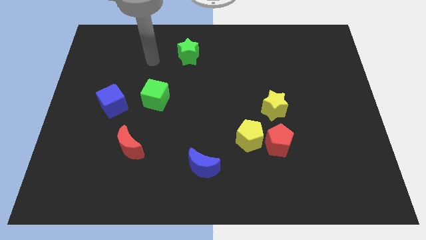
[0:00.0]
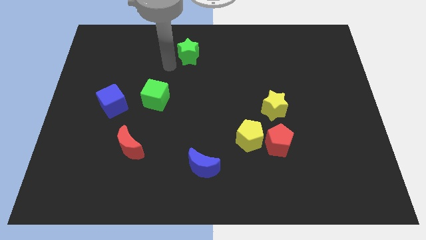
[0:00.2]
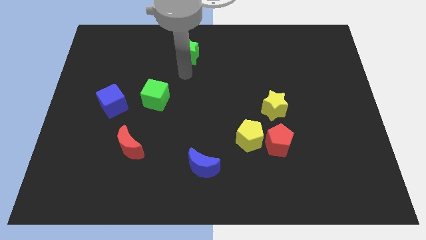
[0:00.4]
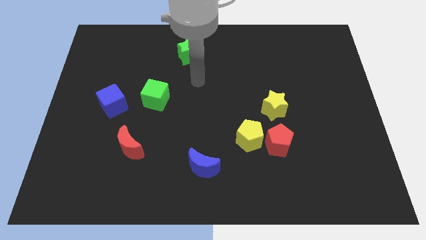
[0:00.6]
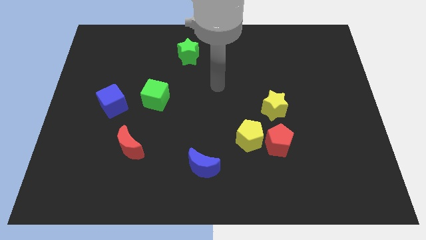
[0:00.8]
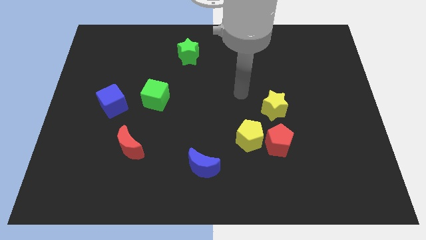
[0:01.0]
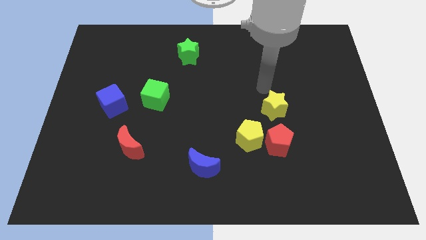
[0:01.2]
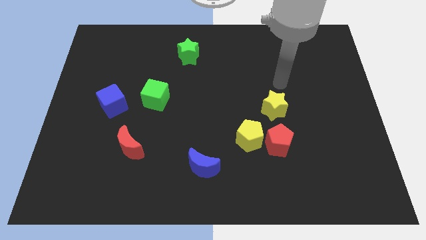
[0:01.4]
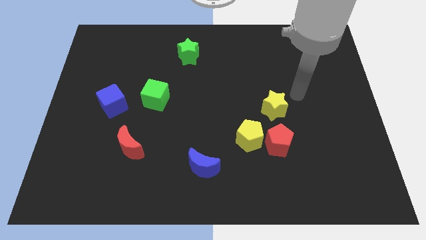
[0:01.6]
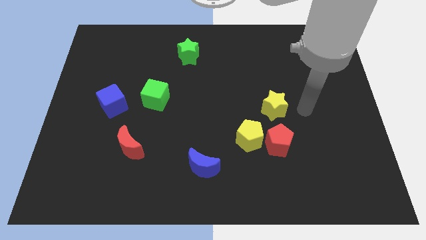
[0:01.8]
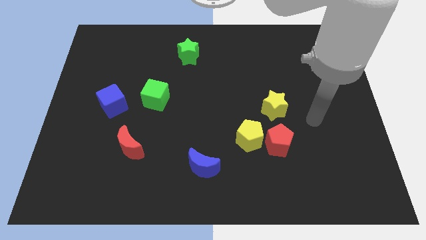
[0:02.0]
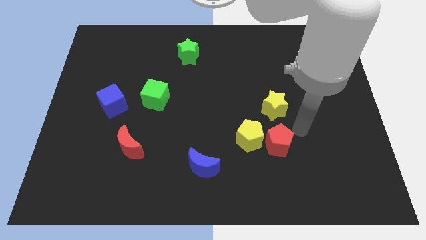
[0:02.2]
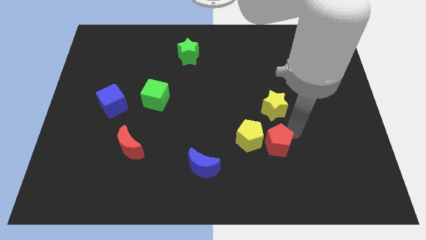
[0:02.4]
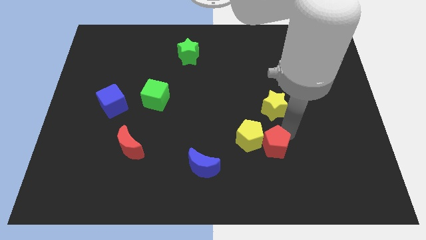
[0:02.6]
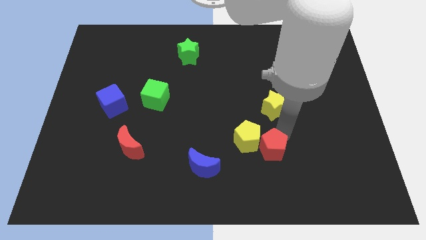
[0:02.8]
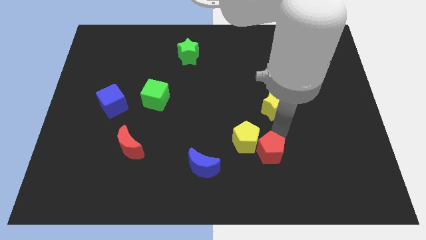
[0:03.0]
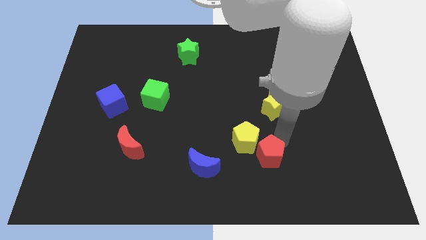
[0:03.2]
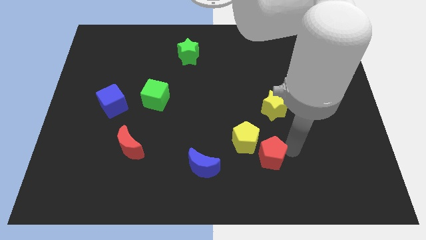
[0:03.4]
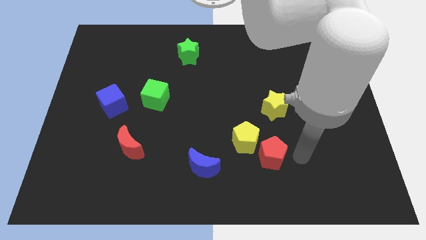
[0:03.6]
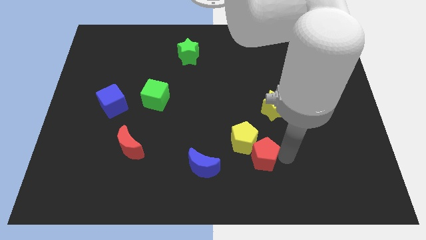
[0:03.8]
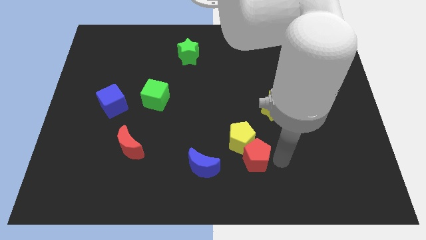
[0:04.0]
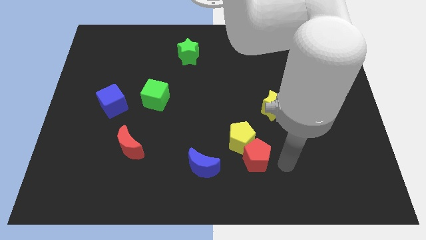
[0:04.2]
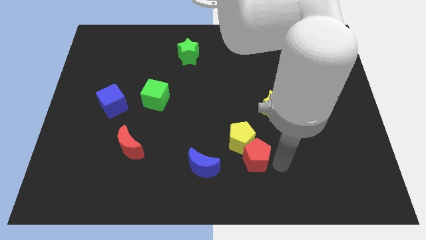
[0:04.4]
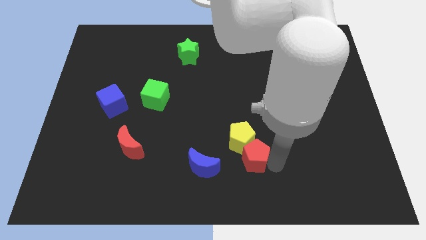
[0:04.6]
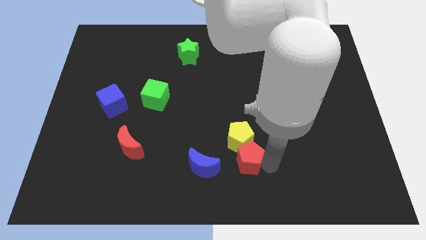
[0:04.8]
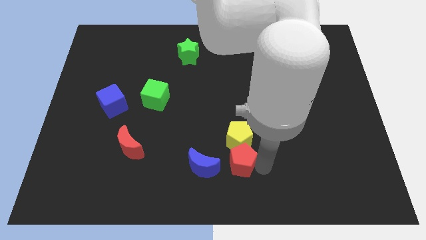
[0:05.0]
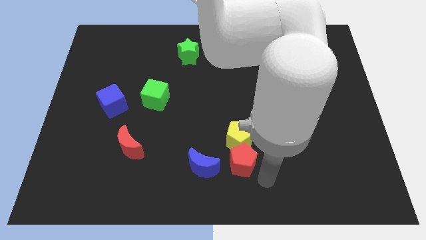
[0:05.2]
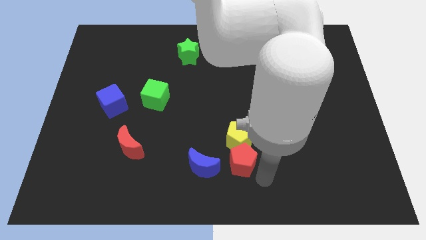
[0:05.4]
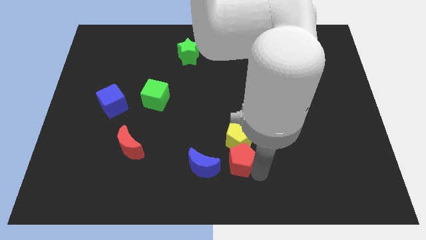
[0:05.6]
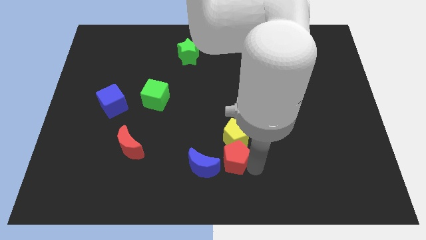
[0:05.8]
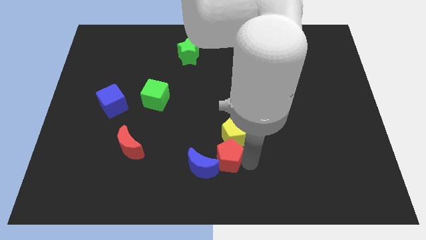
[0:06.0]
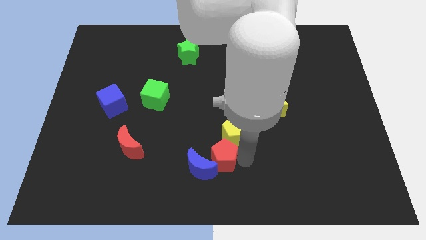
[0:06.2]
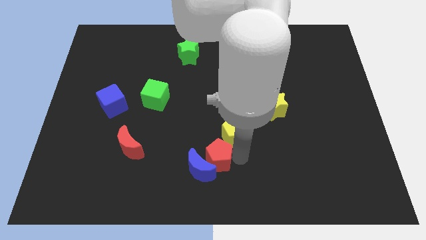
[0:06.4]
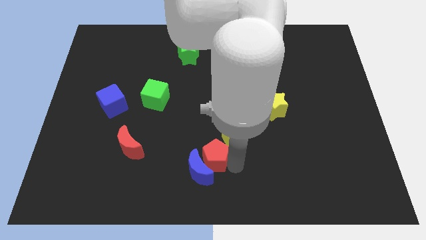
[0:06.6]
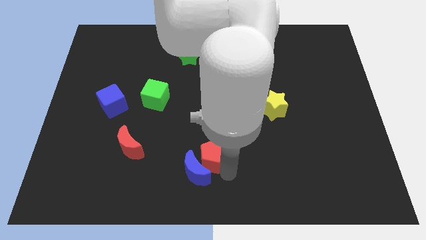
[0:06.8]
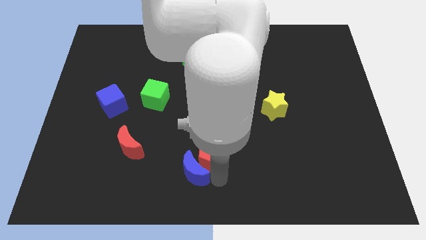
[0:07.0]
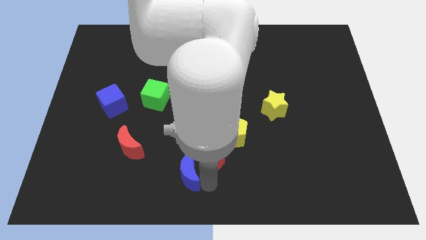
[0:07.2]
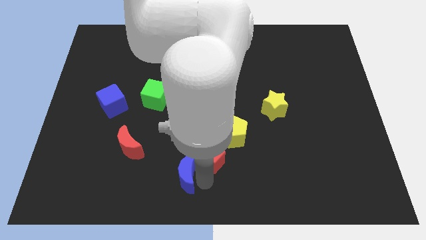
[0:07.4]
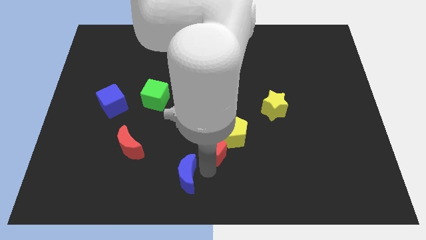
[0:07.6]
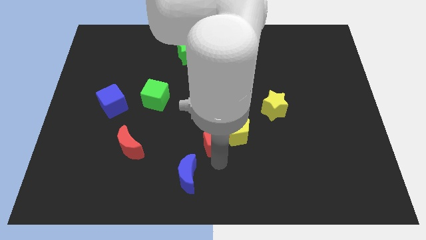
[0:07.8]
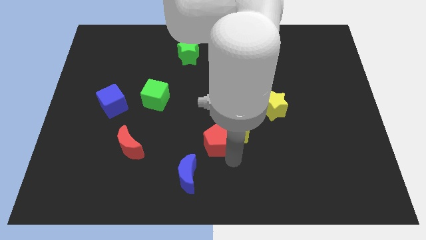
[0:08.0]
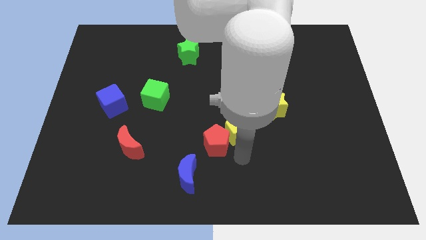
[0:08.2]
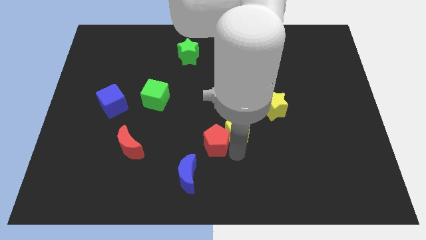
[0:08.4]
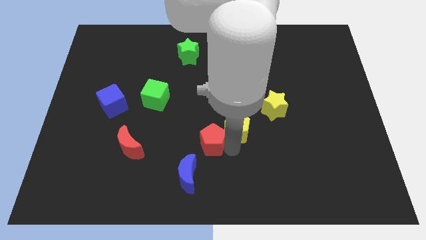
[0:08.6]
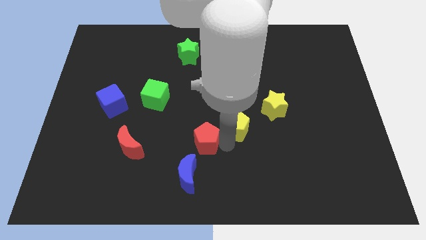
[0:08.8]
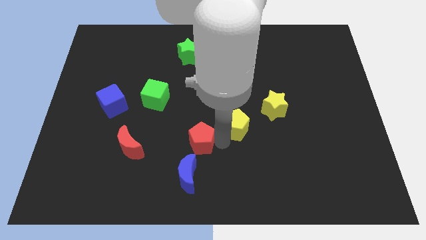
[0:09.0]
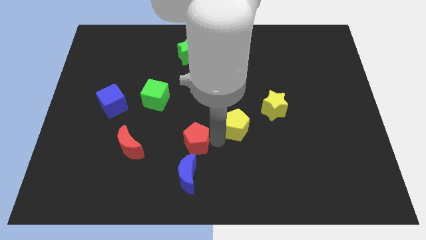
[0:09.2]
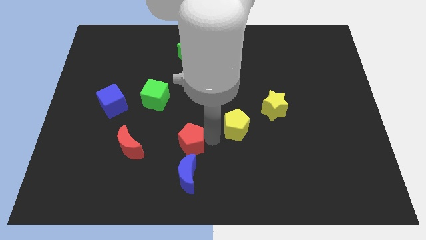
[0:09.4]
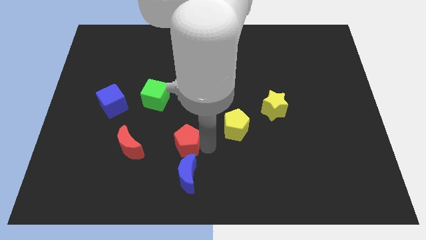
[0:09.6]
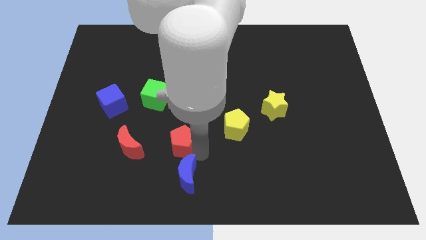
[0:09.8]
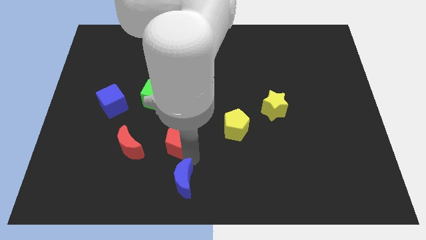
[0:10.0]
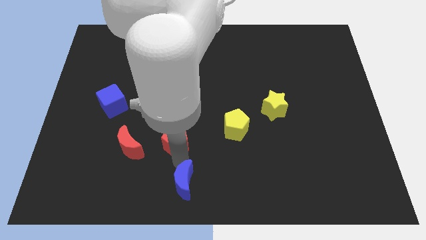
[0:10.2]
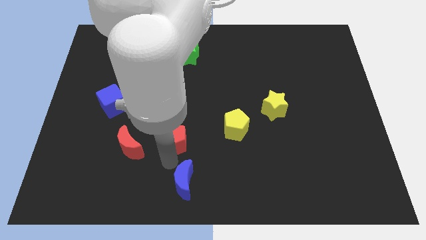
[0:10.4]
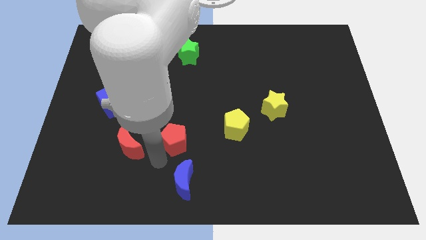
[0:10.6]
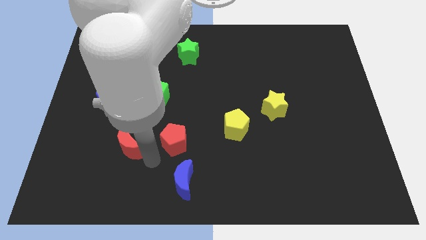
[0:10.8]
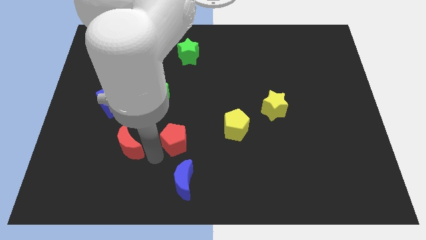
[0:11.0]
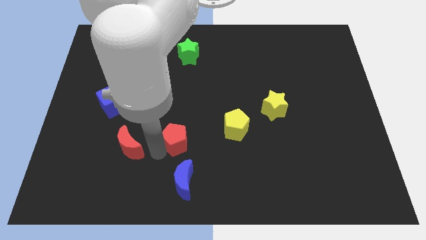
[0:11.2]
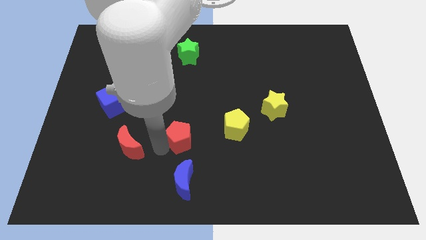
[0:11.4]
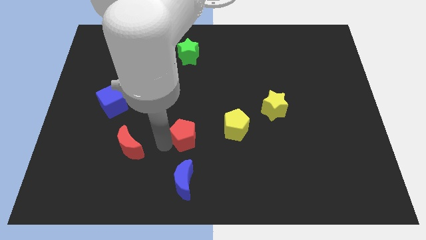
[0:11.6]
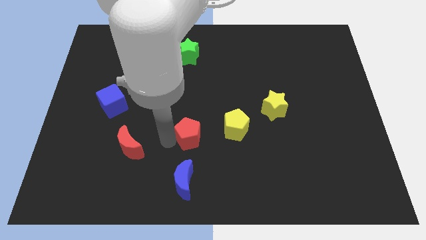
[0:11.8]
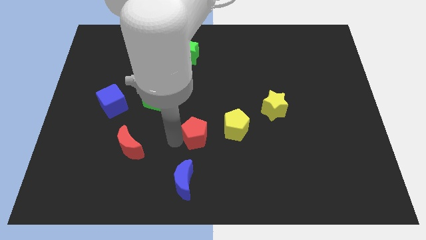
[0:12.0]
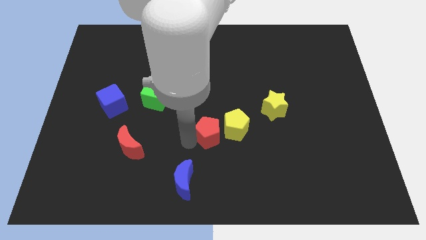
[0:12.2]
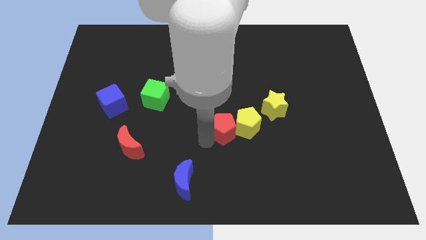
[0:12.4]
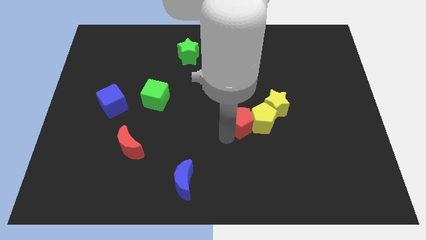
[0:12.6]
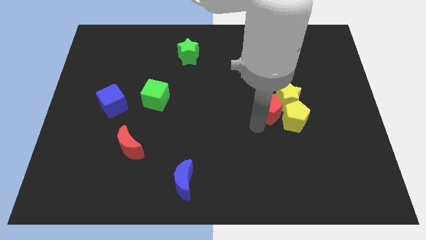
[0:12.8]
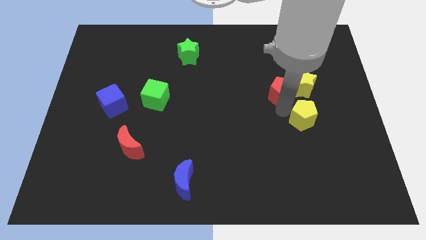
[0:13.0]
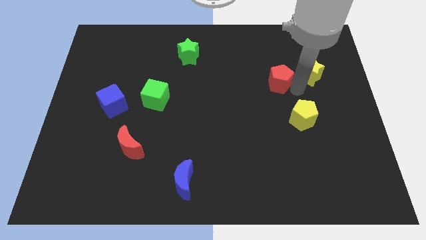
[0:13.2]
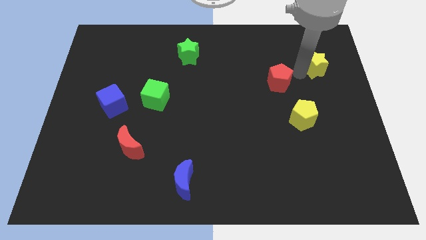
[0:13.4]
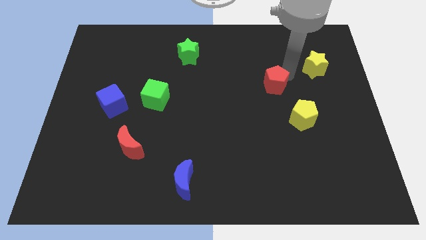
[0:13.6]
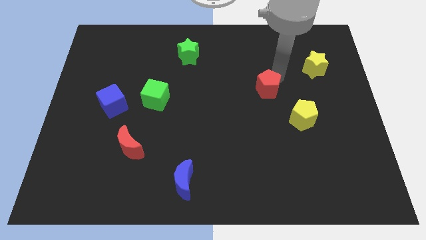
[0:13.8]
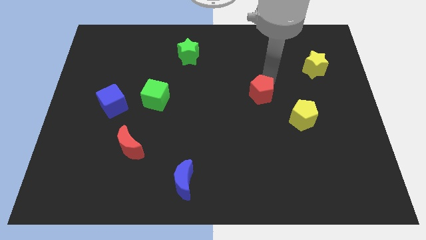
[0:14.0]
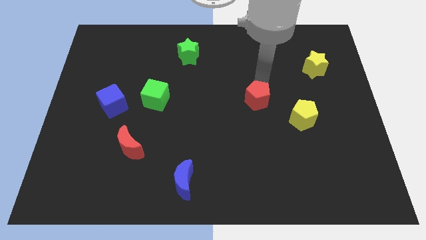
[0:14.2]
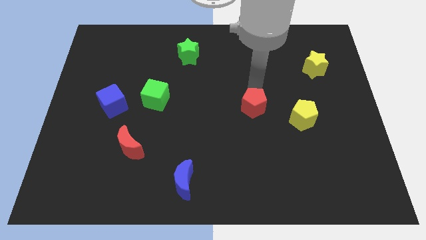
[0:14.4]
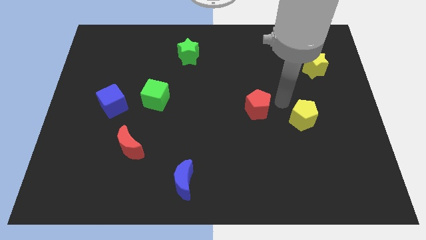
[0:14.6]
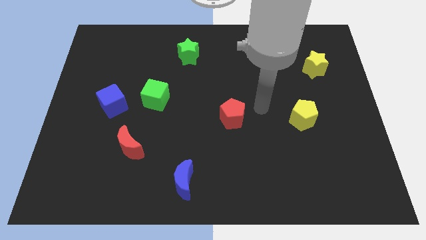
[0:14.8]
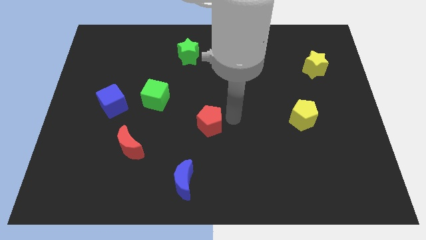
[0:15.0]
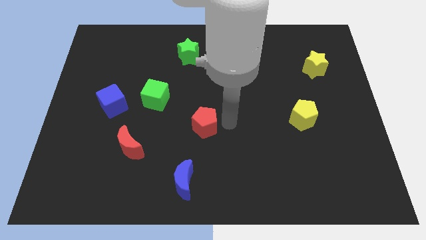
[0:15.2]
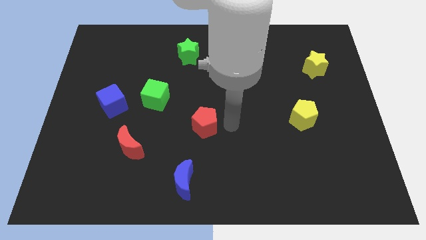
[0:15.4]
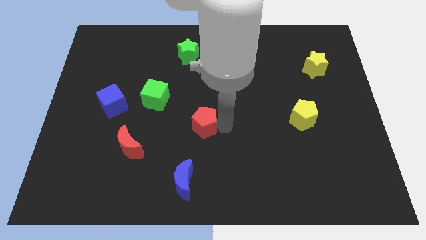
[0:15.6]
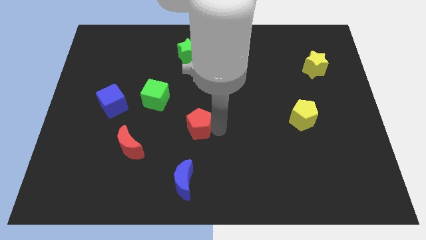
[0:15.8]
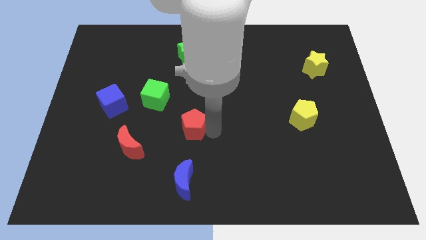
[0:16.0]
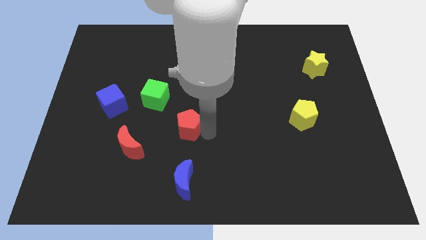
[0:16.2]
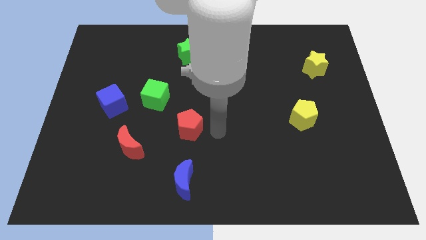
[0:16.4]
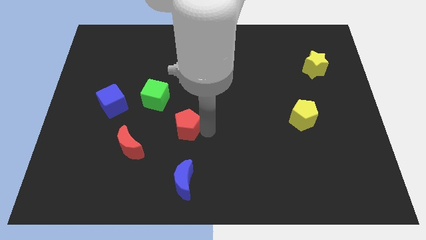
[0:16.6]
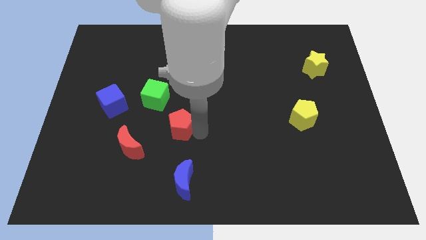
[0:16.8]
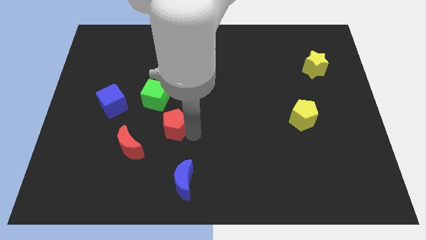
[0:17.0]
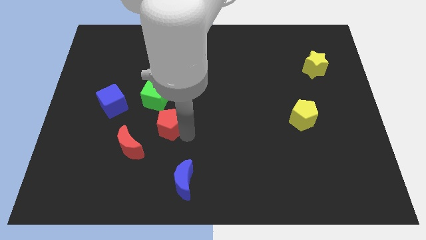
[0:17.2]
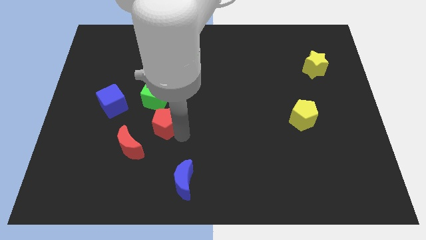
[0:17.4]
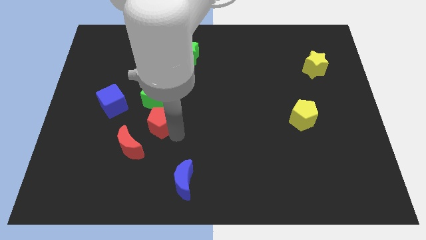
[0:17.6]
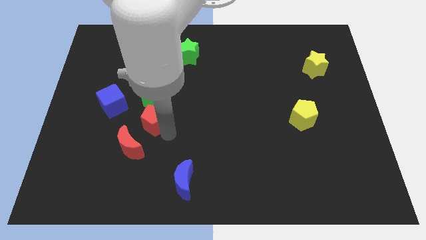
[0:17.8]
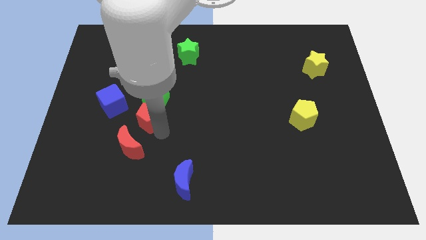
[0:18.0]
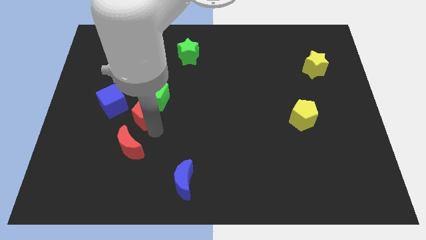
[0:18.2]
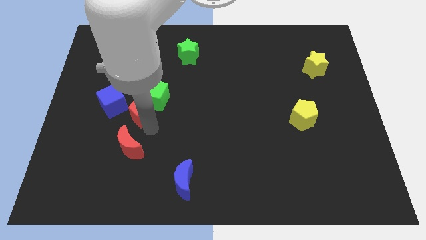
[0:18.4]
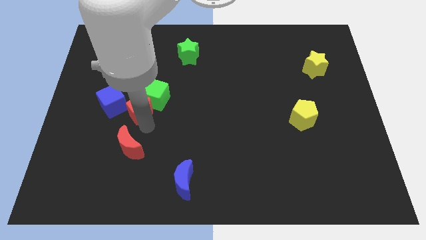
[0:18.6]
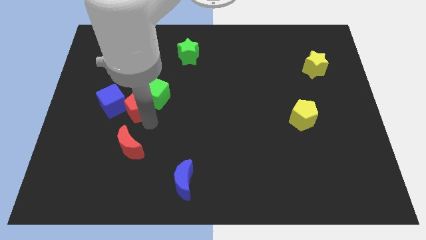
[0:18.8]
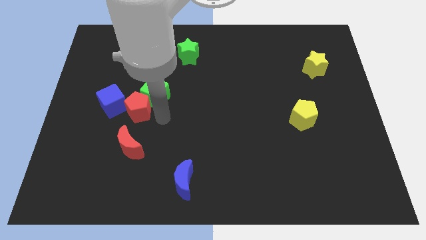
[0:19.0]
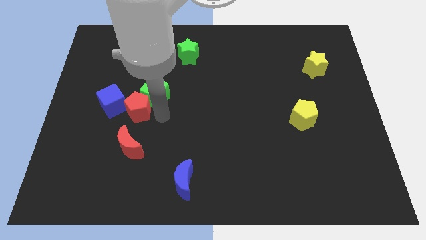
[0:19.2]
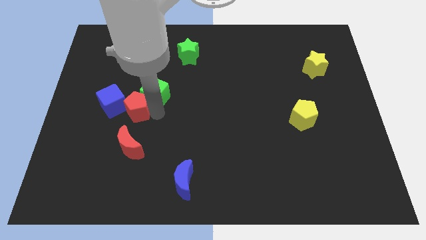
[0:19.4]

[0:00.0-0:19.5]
move the red pentagon next to the blue cube
